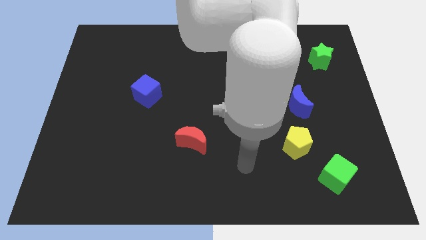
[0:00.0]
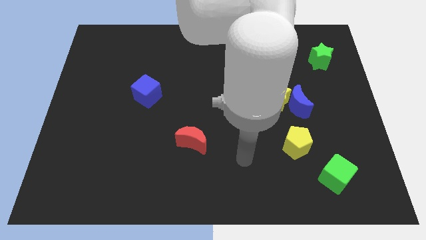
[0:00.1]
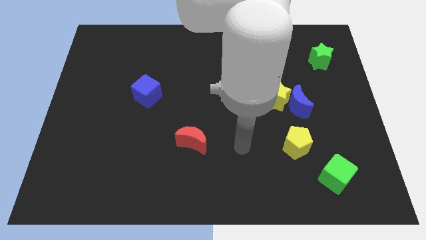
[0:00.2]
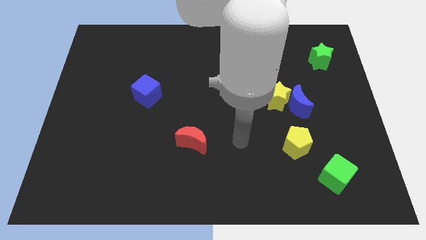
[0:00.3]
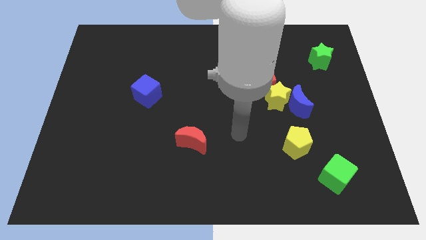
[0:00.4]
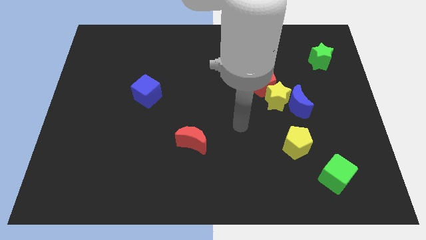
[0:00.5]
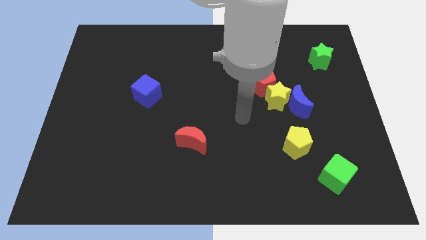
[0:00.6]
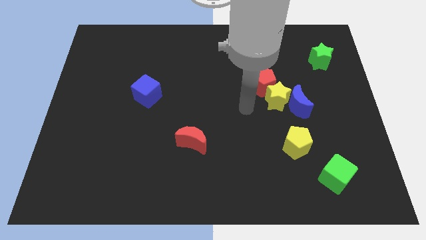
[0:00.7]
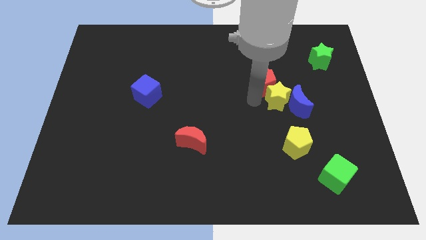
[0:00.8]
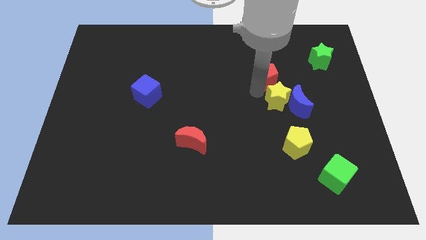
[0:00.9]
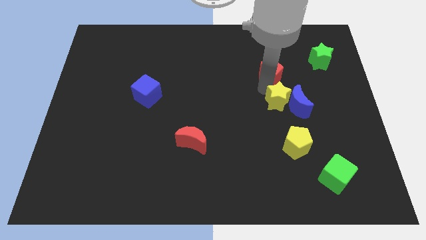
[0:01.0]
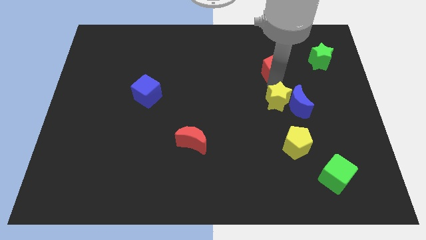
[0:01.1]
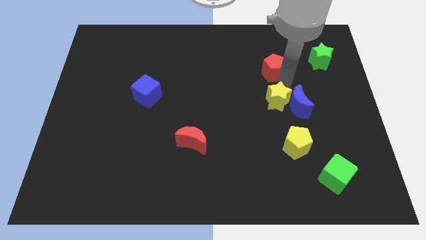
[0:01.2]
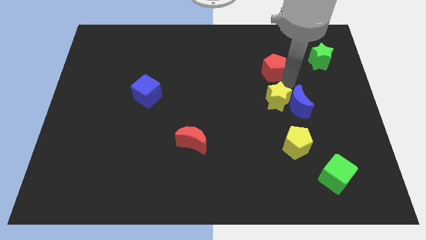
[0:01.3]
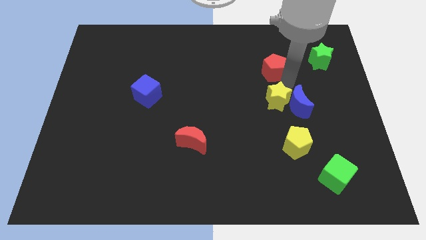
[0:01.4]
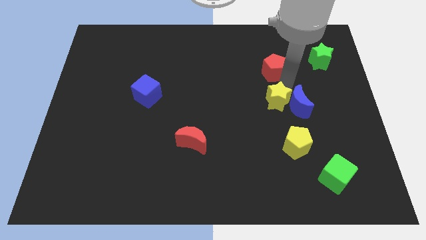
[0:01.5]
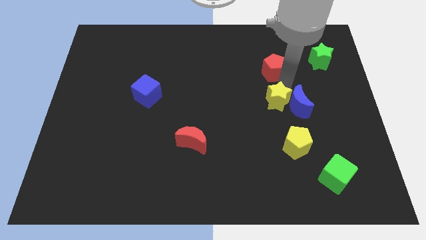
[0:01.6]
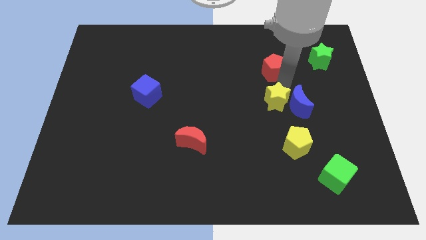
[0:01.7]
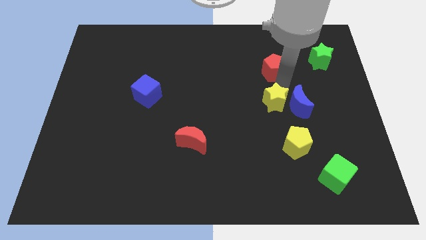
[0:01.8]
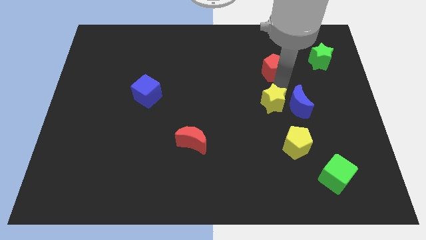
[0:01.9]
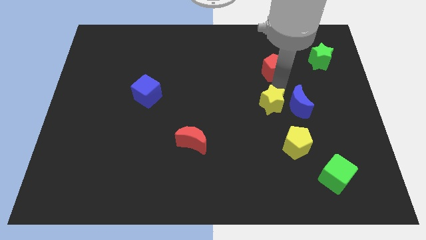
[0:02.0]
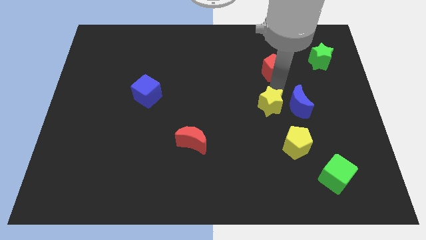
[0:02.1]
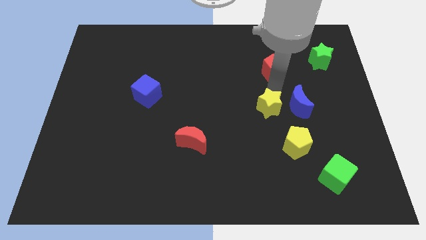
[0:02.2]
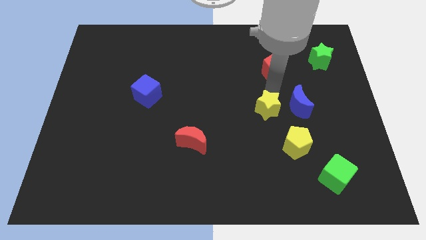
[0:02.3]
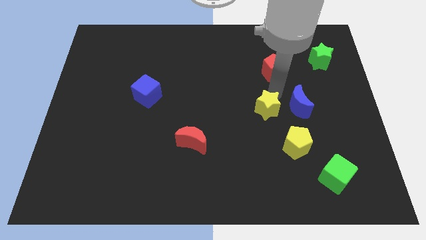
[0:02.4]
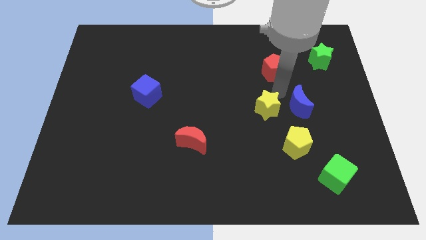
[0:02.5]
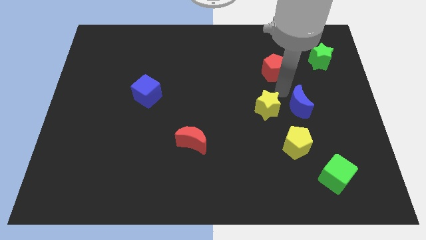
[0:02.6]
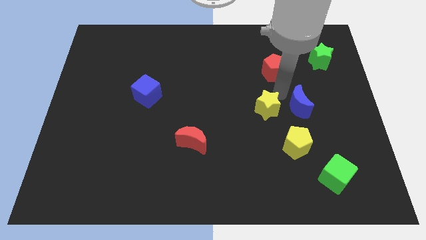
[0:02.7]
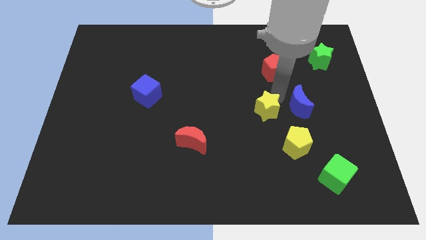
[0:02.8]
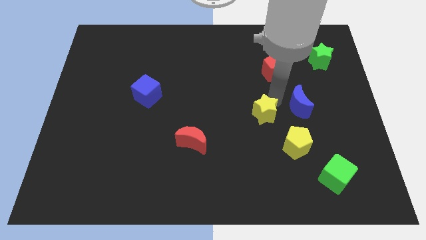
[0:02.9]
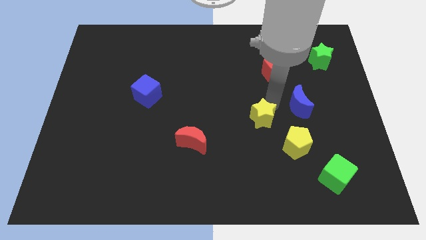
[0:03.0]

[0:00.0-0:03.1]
move the yellow star away from the blue moon and red pentagon

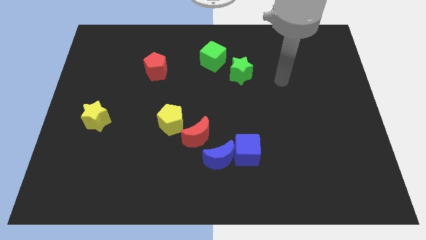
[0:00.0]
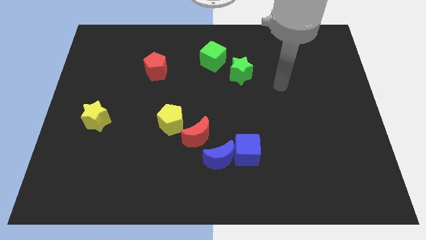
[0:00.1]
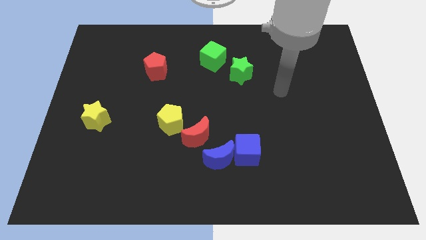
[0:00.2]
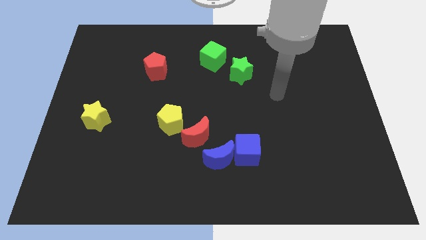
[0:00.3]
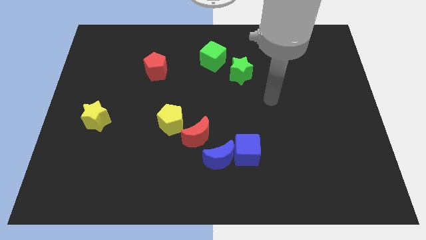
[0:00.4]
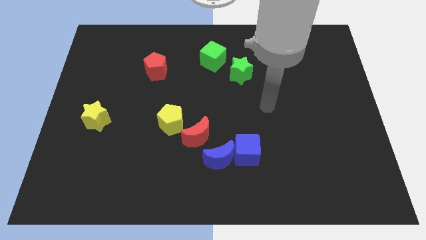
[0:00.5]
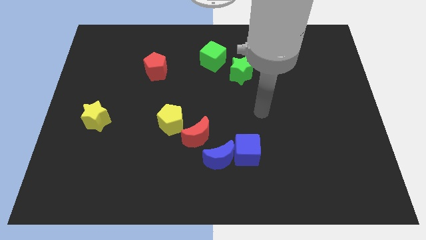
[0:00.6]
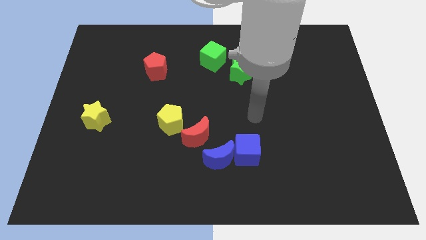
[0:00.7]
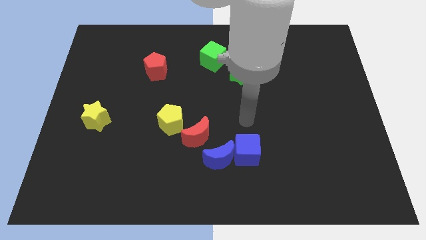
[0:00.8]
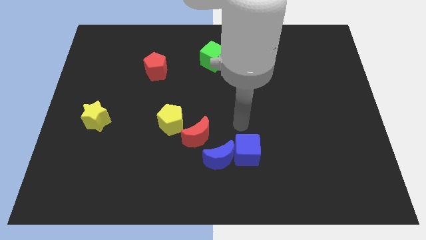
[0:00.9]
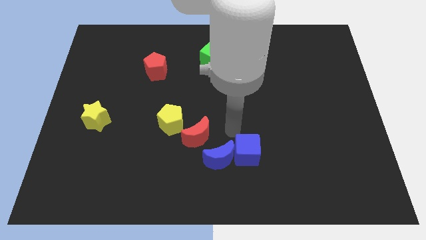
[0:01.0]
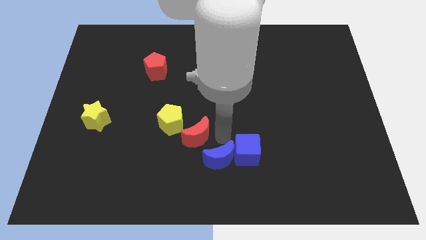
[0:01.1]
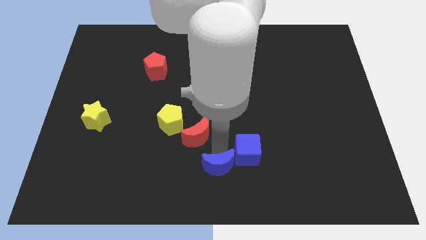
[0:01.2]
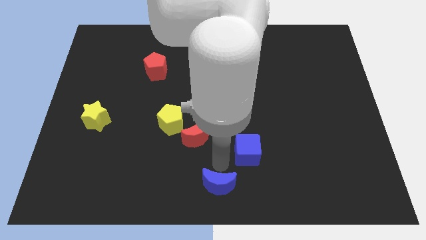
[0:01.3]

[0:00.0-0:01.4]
pull the blue cube apart from the blue moon

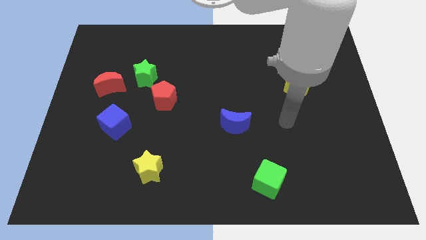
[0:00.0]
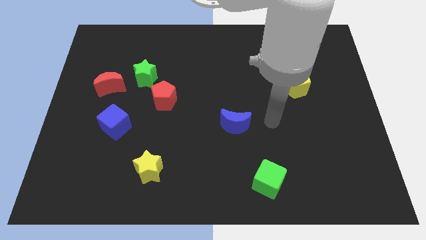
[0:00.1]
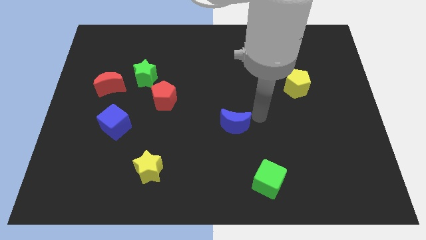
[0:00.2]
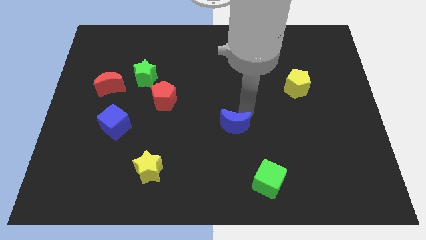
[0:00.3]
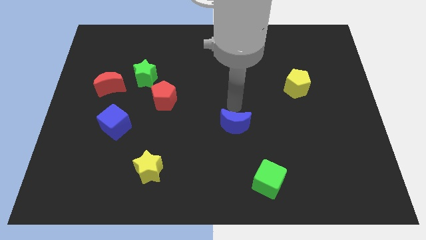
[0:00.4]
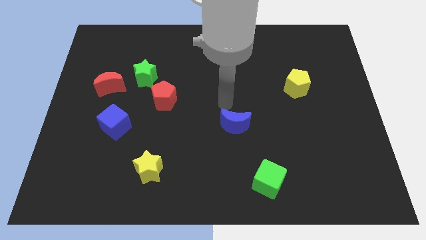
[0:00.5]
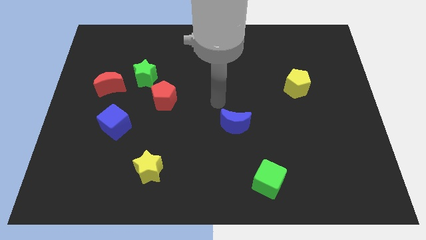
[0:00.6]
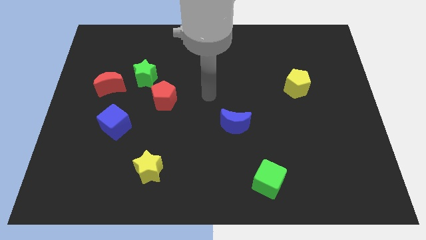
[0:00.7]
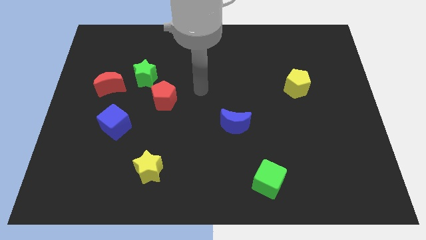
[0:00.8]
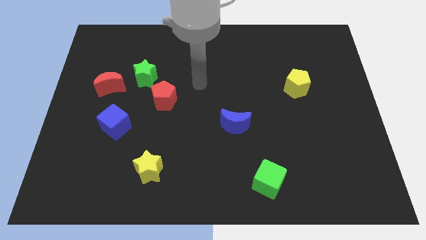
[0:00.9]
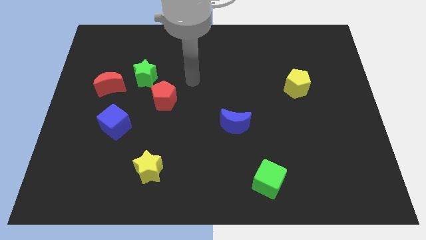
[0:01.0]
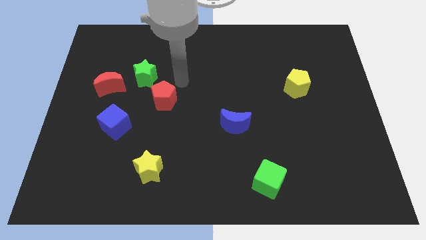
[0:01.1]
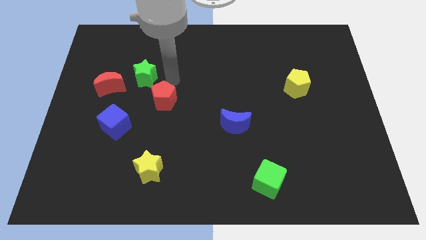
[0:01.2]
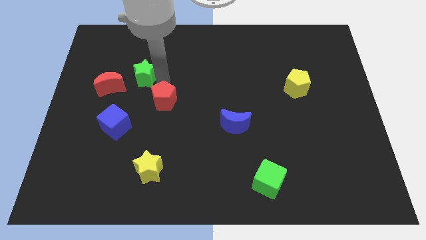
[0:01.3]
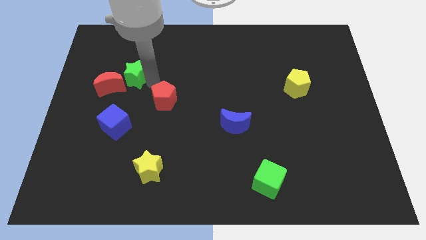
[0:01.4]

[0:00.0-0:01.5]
separate the red pentagon from the green star

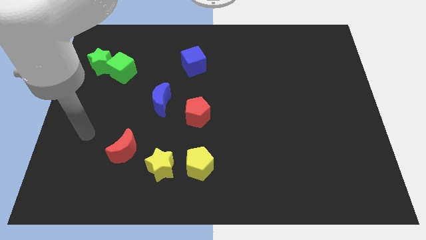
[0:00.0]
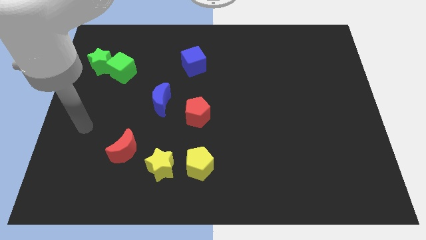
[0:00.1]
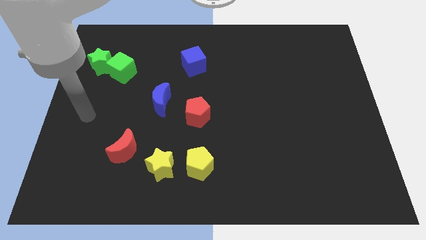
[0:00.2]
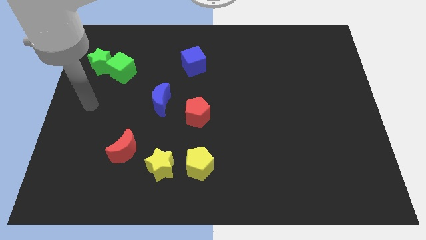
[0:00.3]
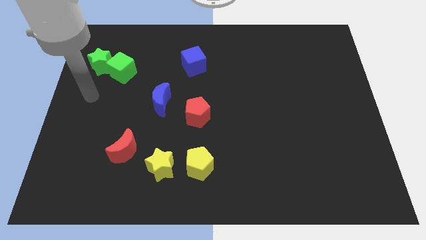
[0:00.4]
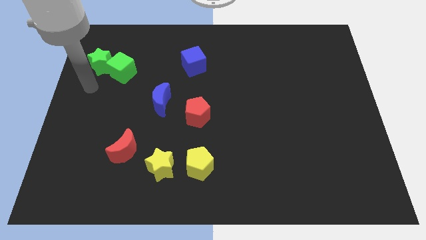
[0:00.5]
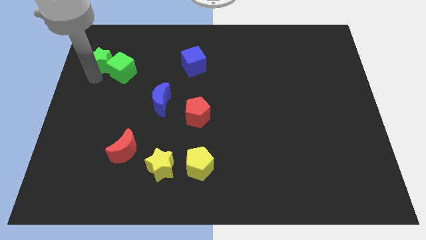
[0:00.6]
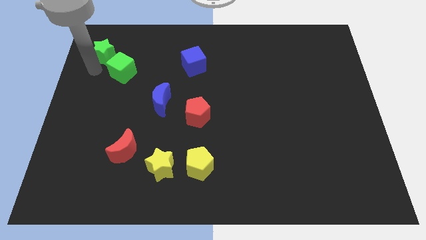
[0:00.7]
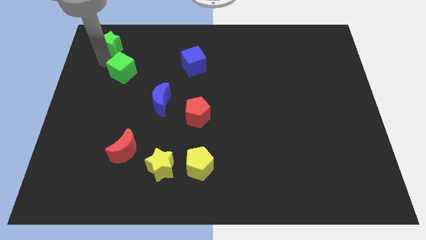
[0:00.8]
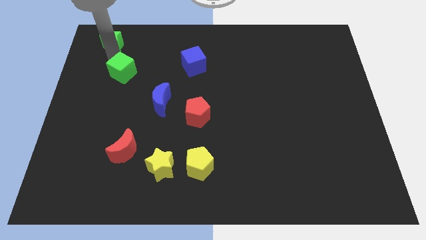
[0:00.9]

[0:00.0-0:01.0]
move the green cube away from the green star

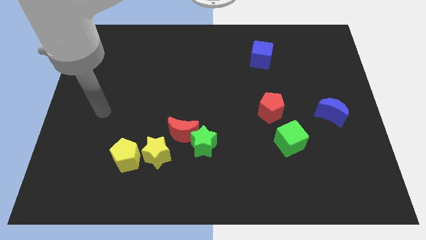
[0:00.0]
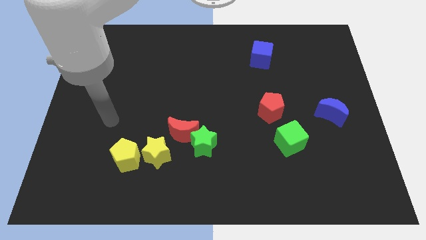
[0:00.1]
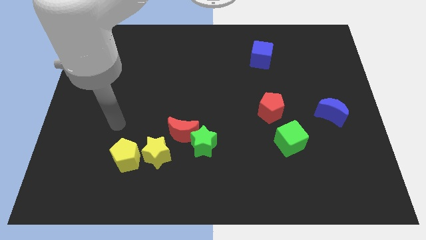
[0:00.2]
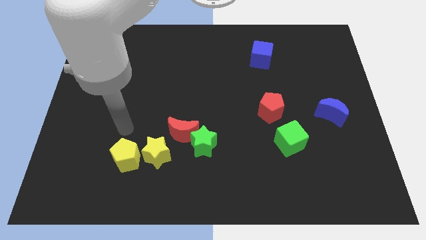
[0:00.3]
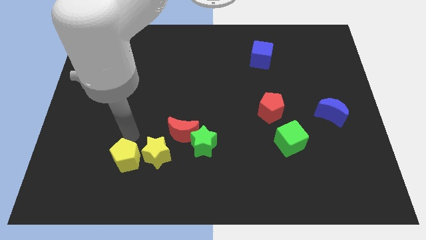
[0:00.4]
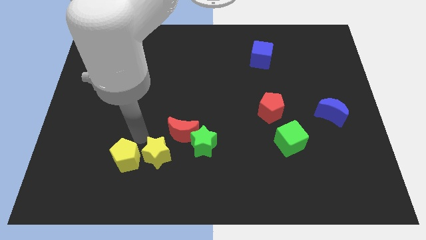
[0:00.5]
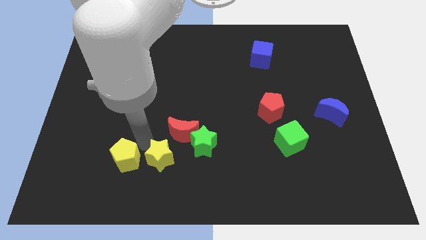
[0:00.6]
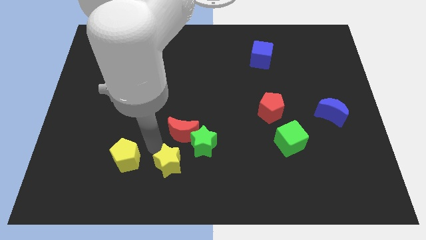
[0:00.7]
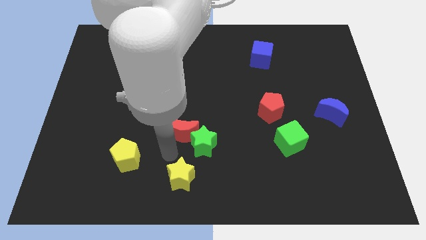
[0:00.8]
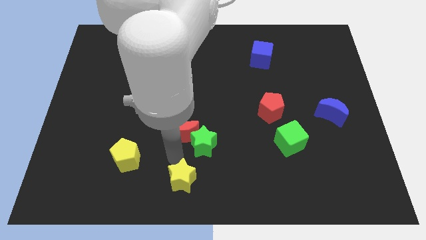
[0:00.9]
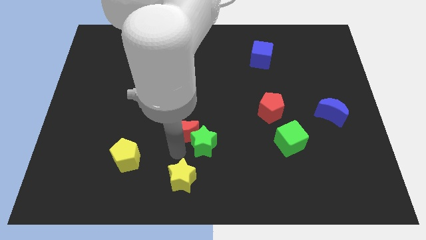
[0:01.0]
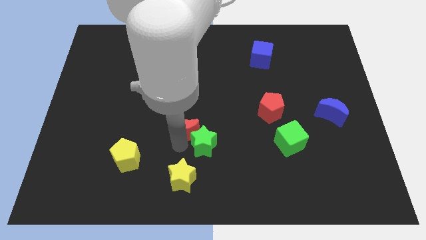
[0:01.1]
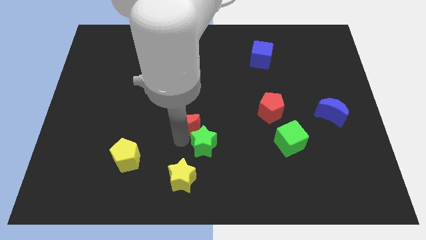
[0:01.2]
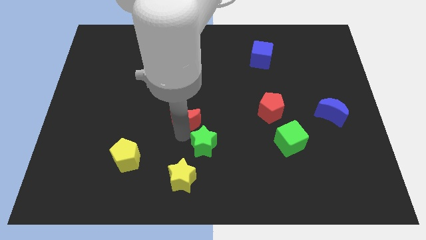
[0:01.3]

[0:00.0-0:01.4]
separate the red moon from the green star and yellow star

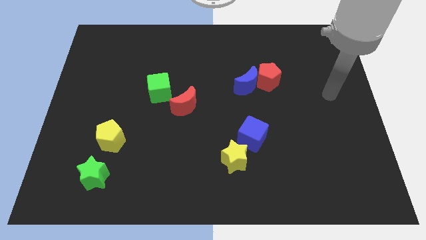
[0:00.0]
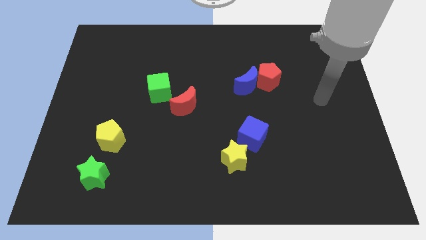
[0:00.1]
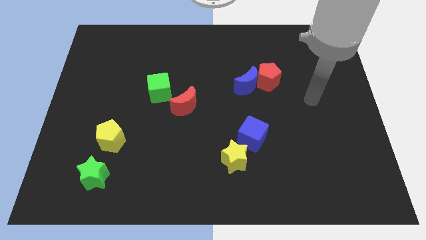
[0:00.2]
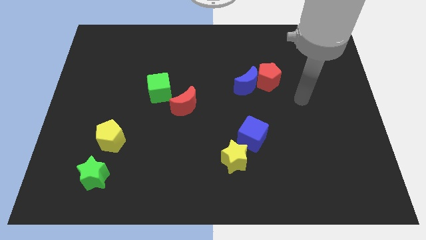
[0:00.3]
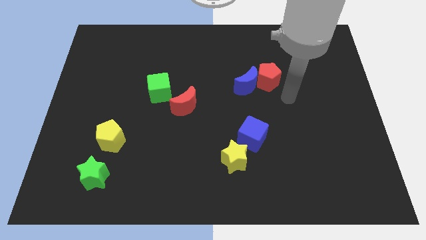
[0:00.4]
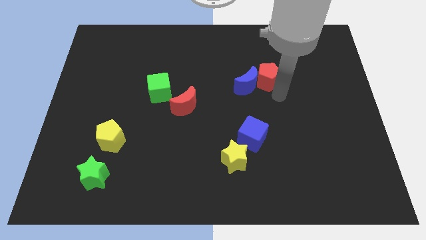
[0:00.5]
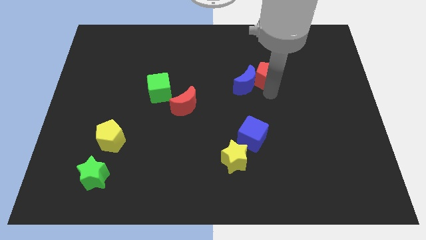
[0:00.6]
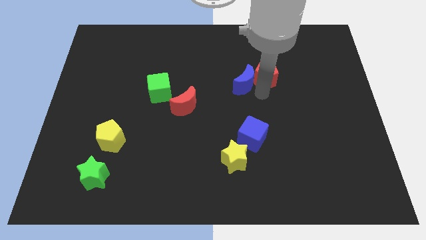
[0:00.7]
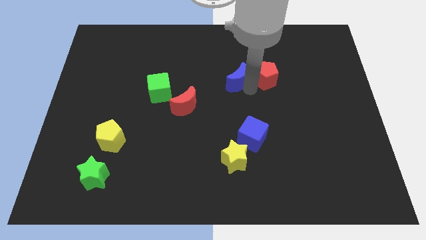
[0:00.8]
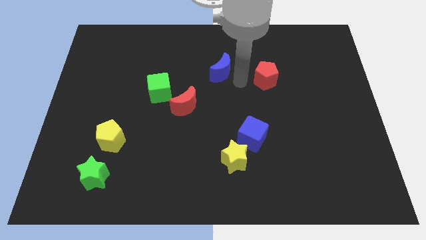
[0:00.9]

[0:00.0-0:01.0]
move the red pentagon away from the blue moon

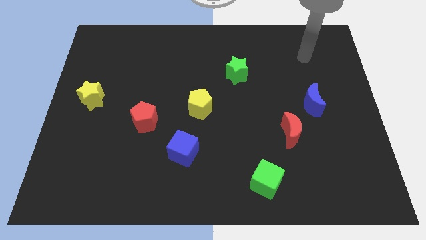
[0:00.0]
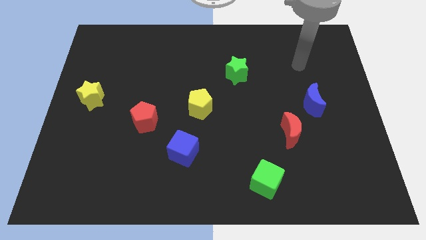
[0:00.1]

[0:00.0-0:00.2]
pull the red moon apart from the blue moon
